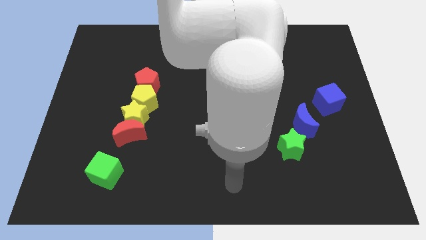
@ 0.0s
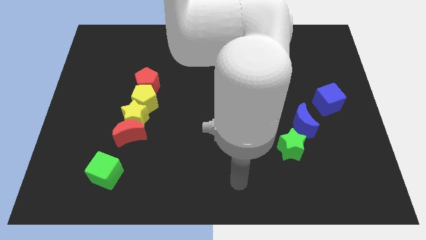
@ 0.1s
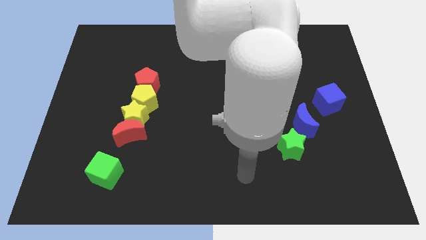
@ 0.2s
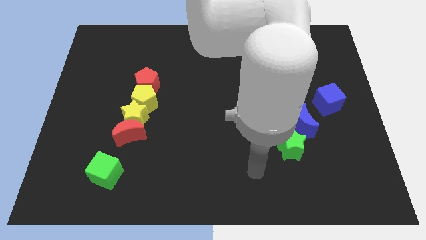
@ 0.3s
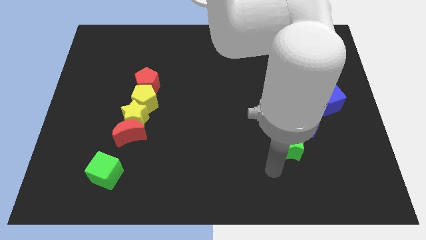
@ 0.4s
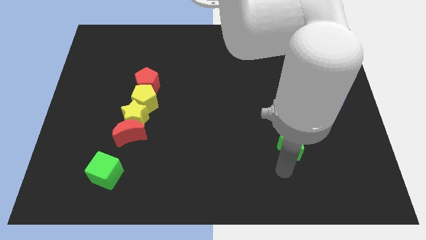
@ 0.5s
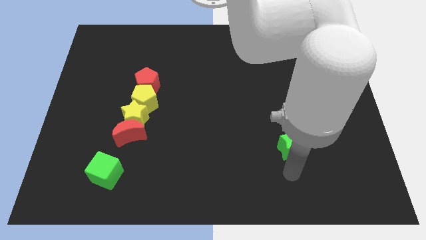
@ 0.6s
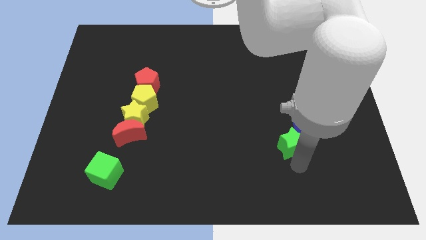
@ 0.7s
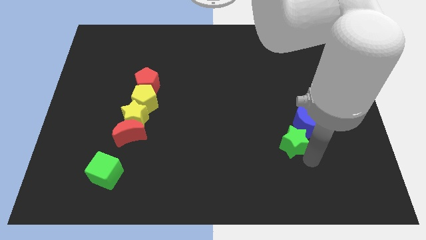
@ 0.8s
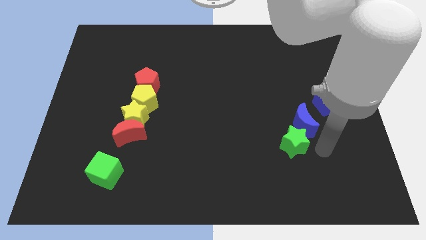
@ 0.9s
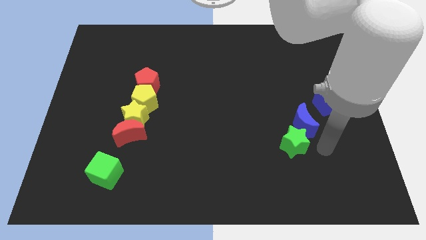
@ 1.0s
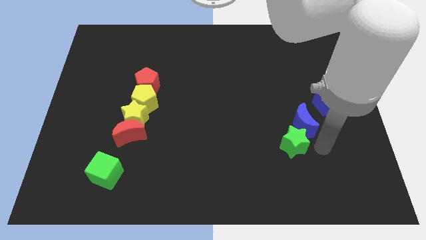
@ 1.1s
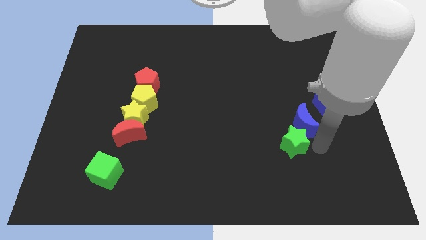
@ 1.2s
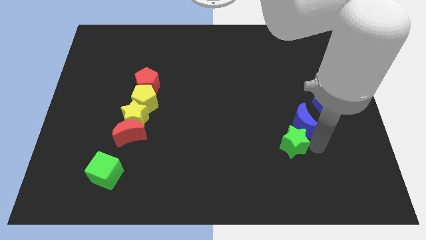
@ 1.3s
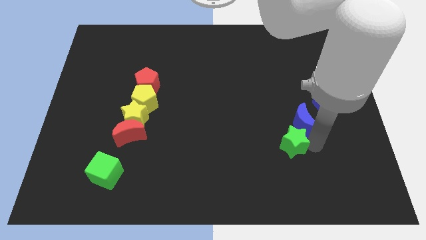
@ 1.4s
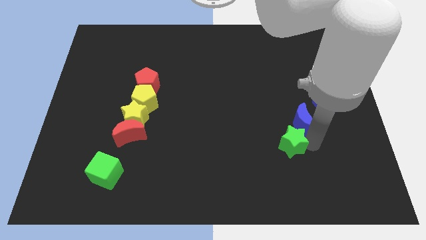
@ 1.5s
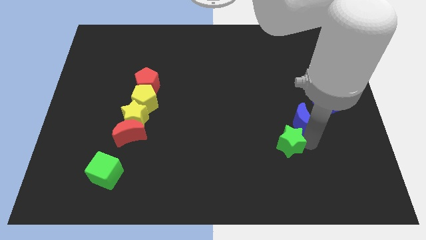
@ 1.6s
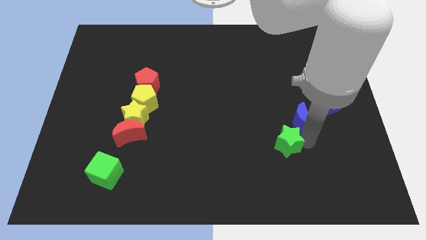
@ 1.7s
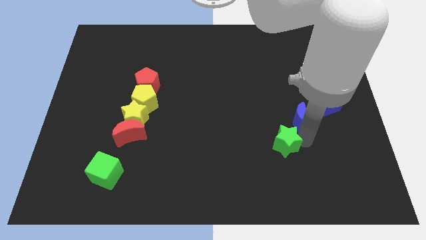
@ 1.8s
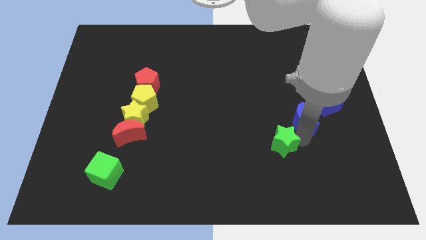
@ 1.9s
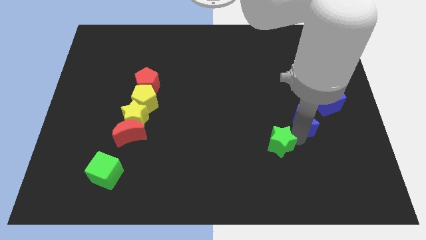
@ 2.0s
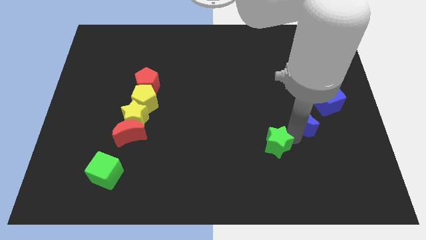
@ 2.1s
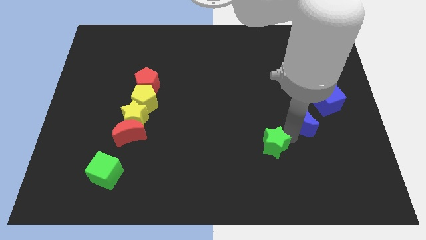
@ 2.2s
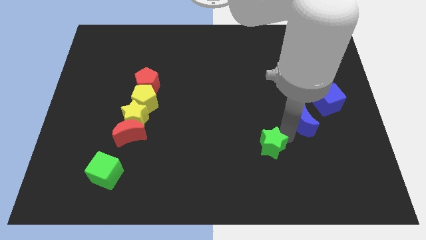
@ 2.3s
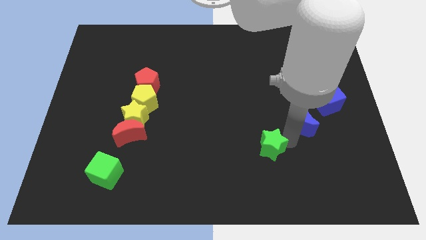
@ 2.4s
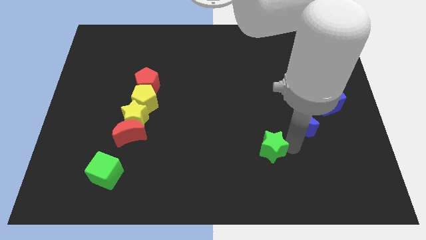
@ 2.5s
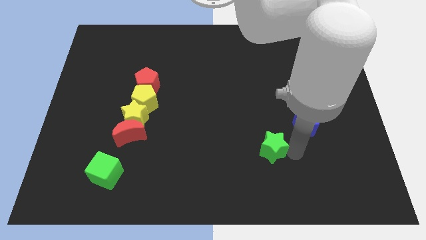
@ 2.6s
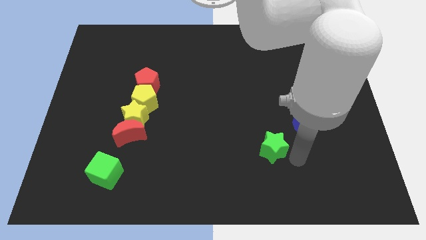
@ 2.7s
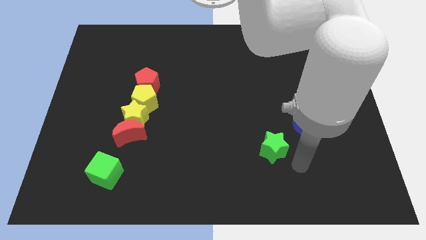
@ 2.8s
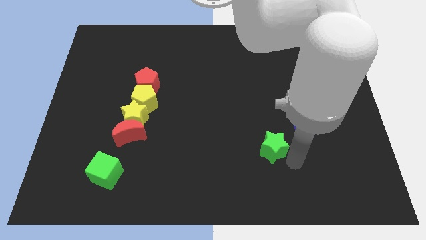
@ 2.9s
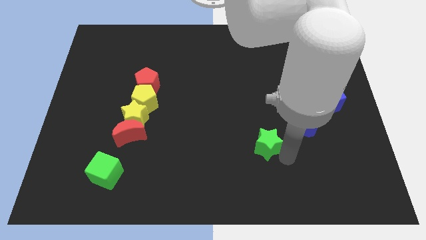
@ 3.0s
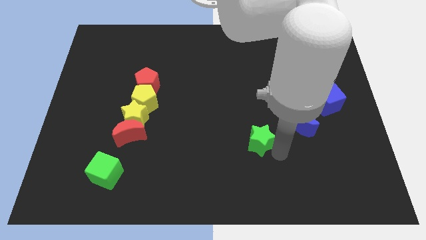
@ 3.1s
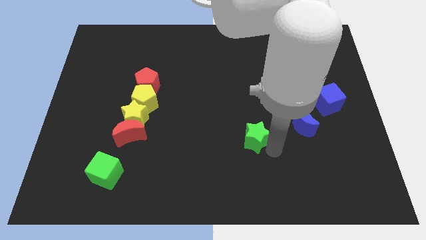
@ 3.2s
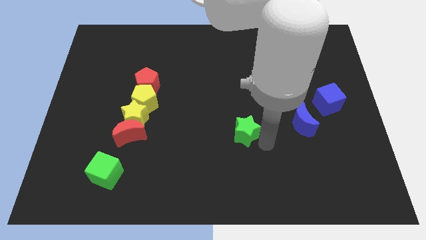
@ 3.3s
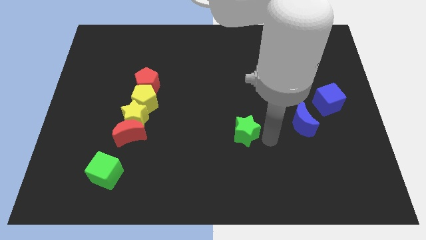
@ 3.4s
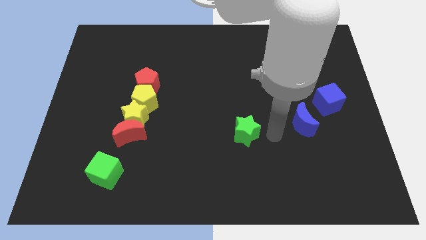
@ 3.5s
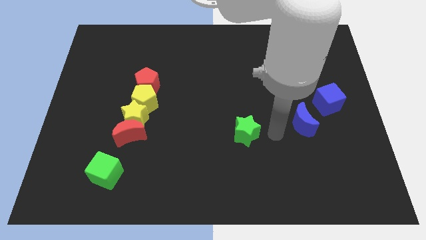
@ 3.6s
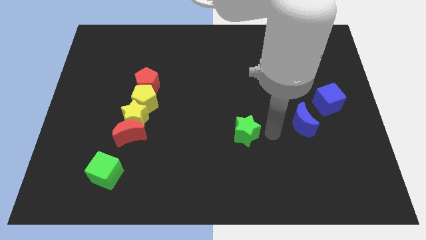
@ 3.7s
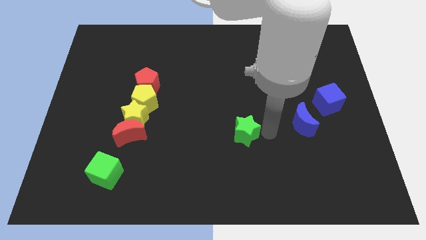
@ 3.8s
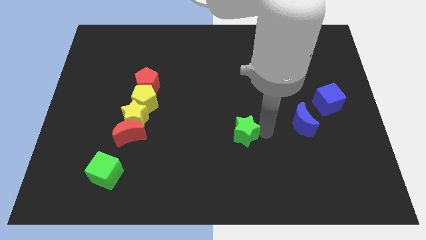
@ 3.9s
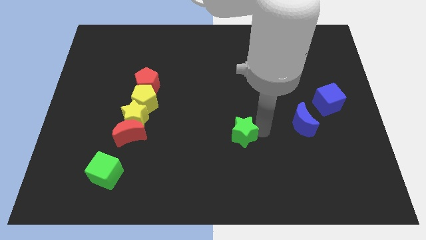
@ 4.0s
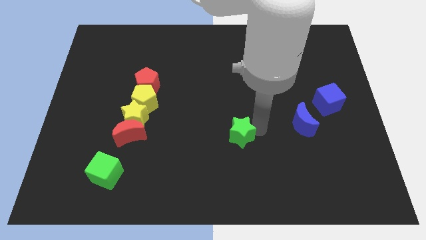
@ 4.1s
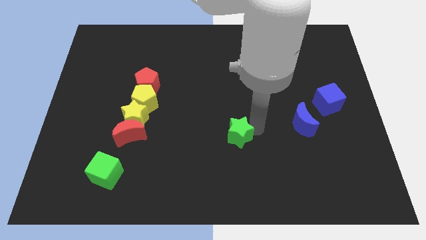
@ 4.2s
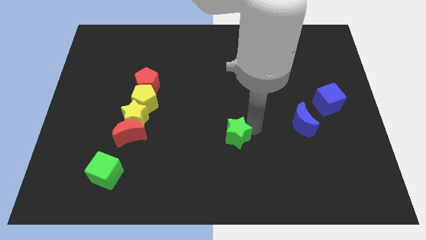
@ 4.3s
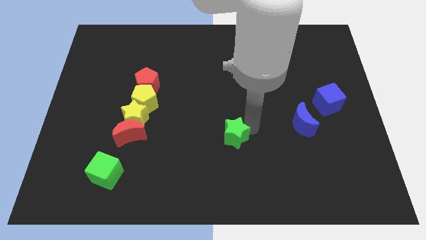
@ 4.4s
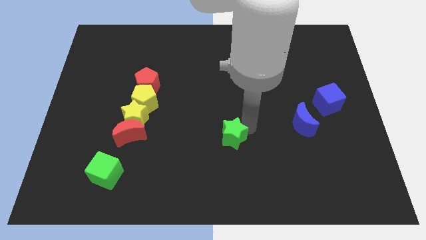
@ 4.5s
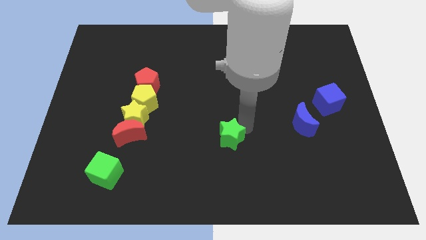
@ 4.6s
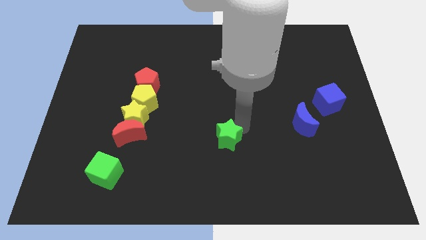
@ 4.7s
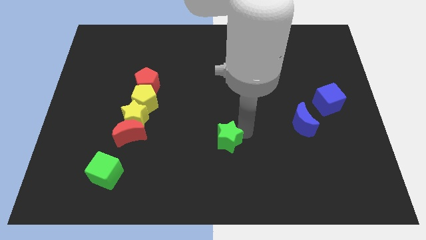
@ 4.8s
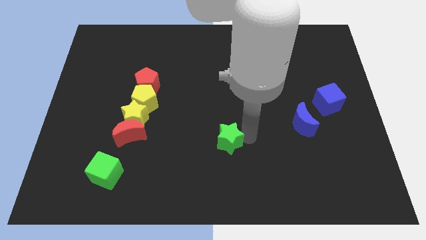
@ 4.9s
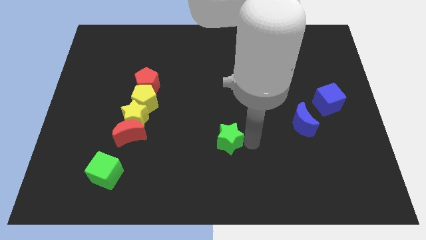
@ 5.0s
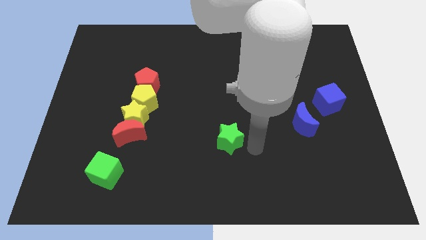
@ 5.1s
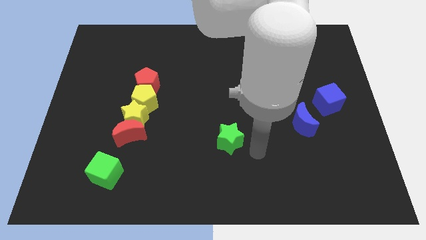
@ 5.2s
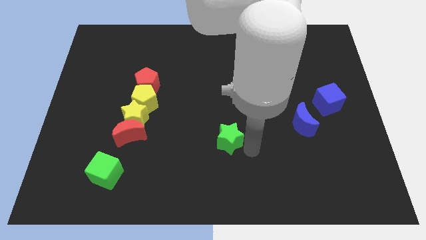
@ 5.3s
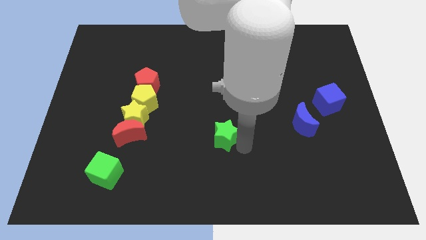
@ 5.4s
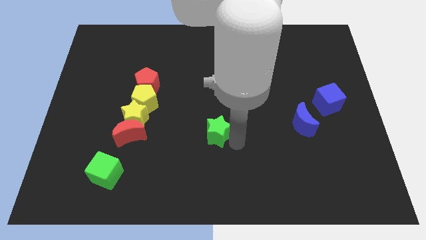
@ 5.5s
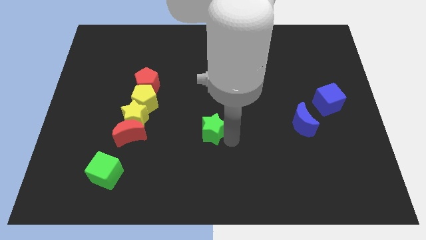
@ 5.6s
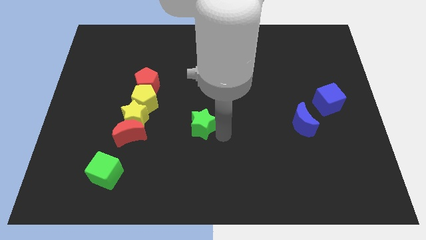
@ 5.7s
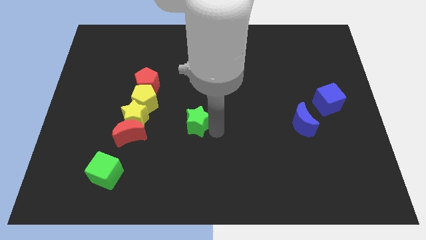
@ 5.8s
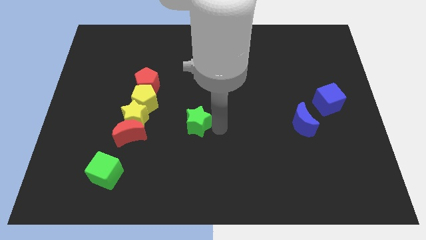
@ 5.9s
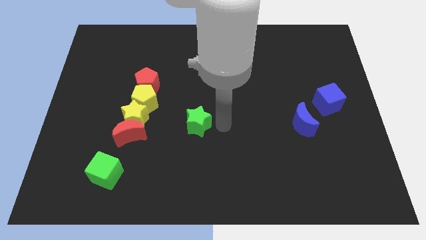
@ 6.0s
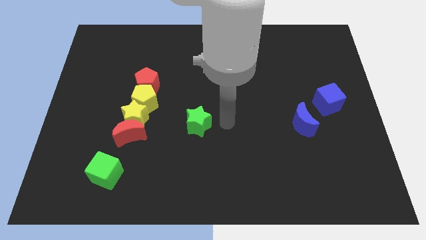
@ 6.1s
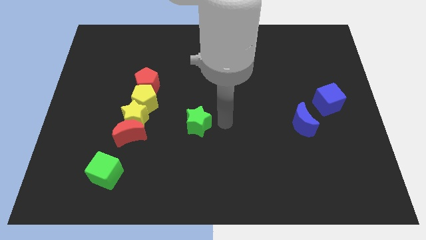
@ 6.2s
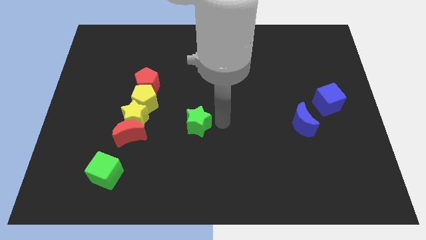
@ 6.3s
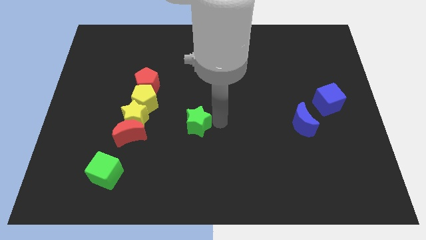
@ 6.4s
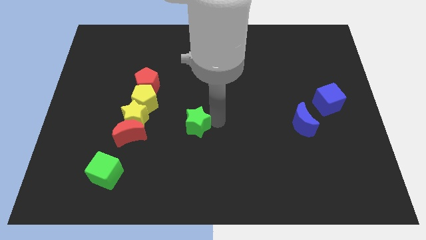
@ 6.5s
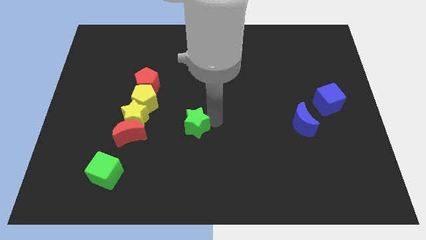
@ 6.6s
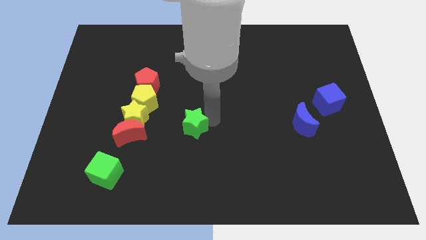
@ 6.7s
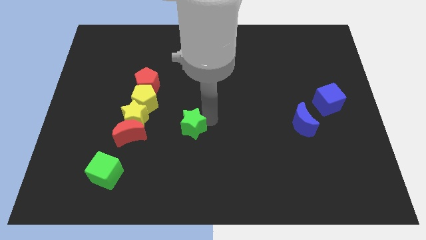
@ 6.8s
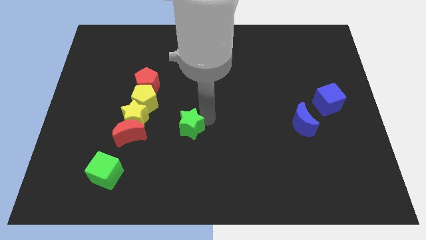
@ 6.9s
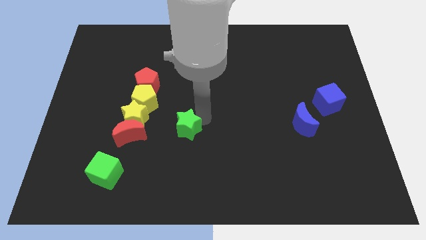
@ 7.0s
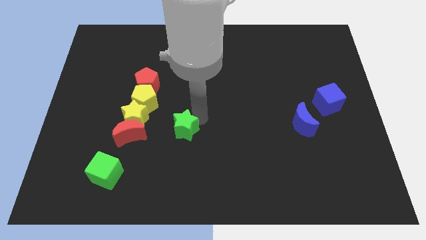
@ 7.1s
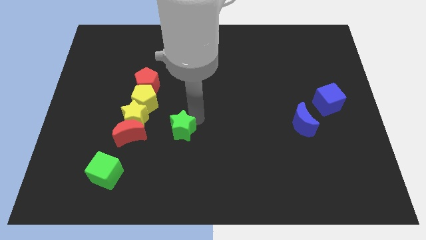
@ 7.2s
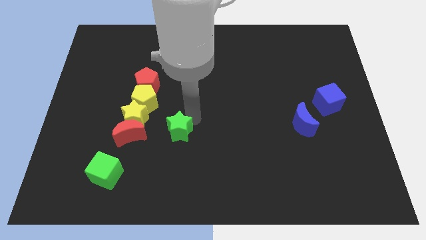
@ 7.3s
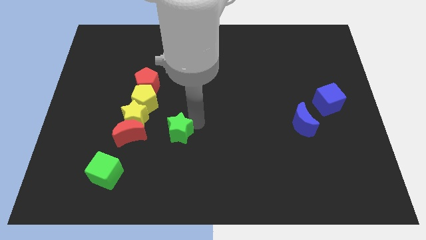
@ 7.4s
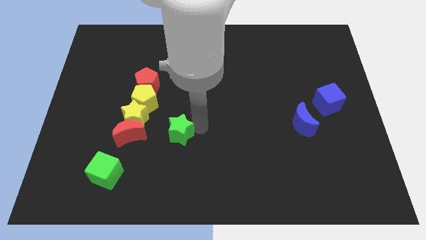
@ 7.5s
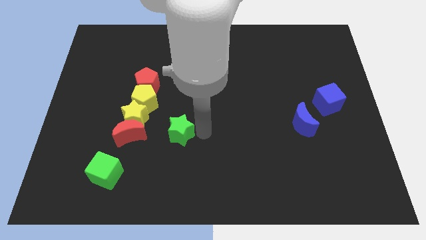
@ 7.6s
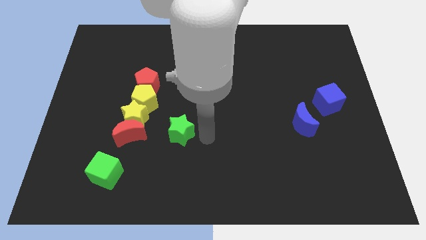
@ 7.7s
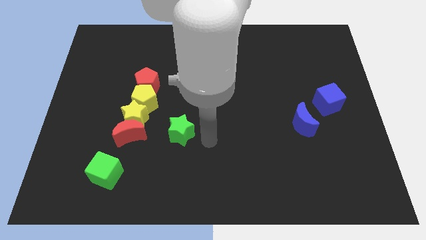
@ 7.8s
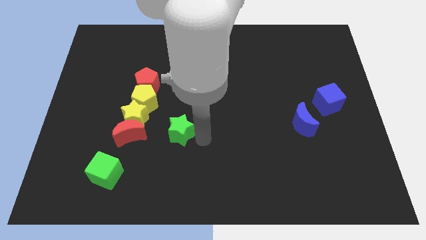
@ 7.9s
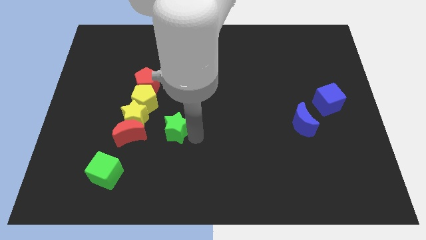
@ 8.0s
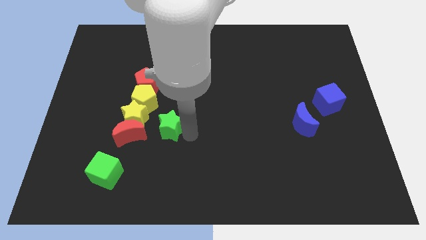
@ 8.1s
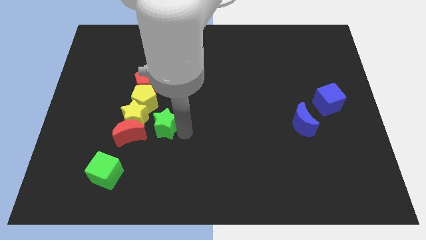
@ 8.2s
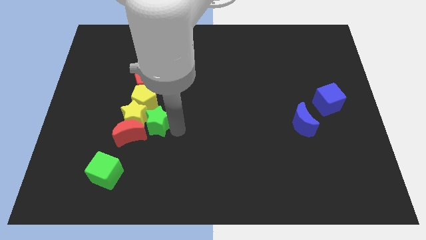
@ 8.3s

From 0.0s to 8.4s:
put the green star close to the yellow star
